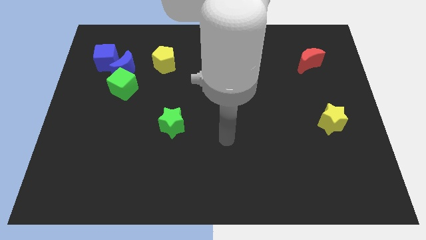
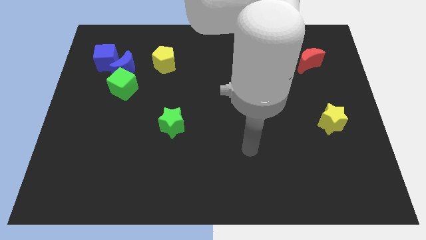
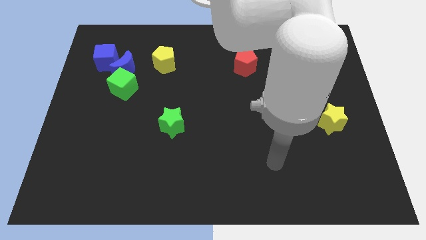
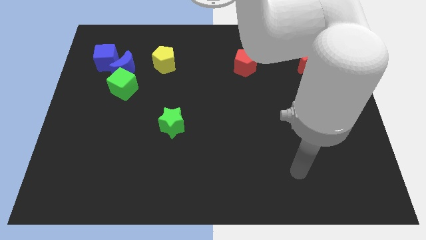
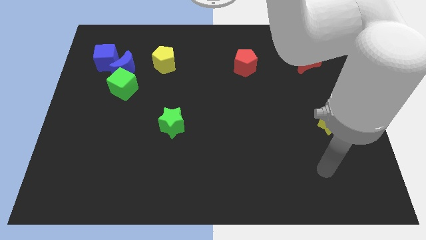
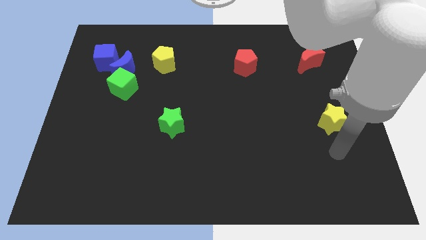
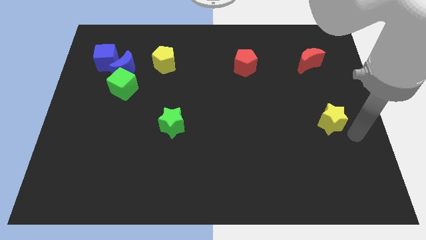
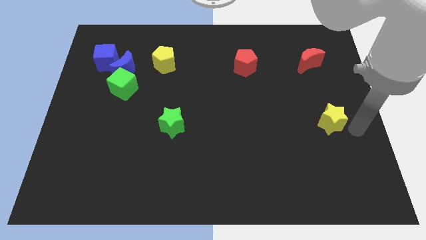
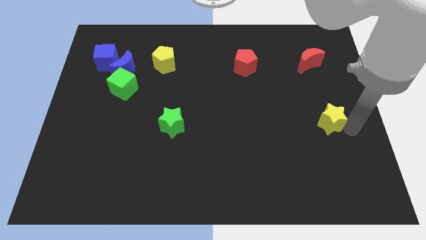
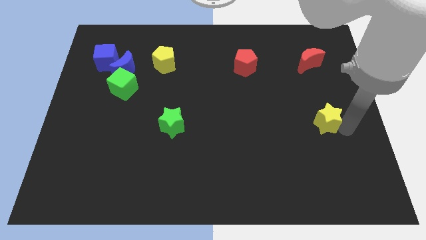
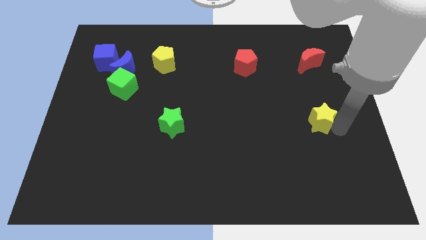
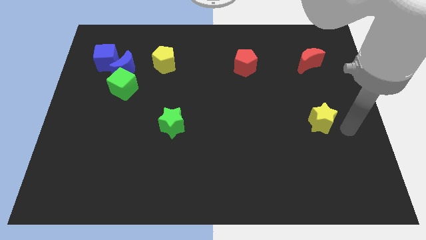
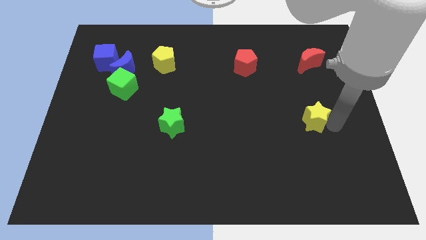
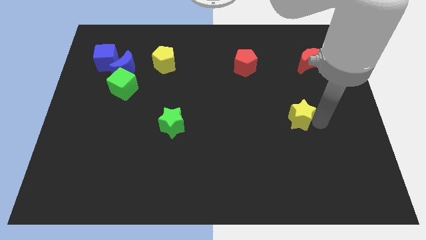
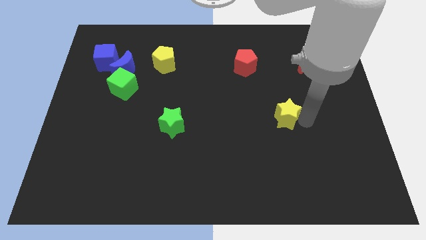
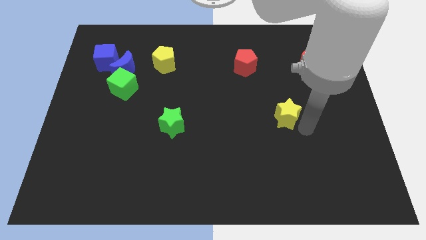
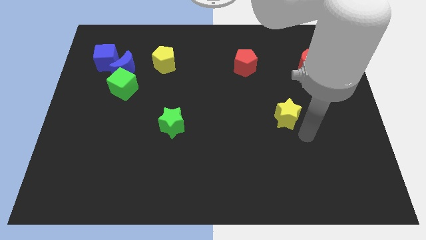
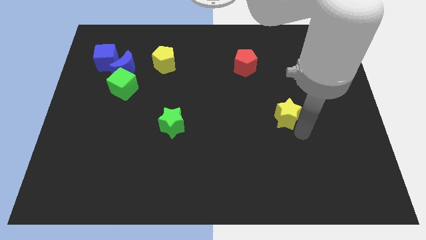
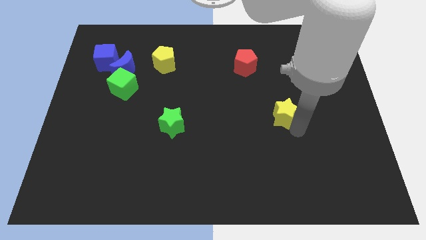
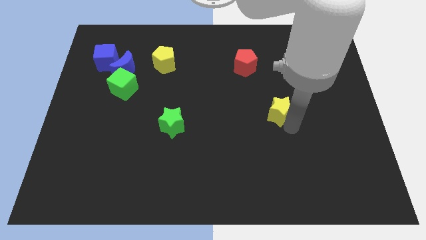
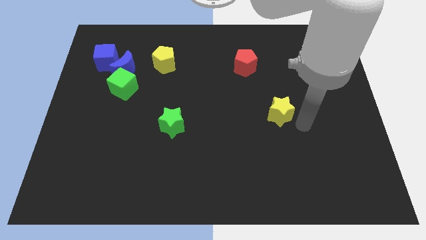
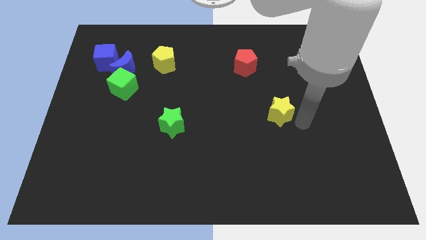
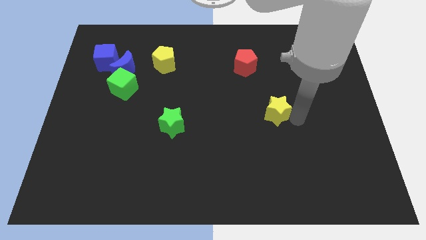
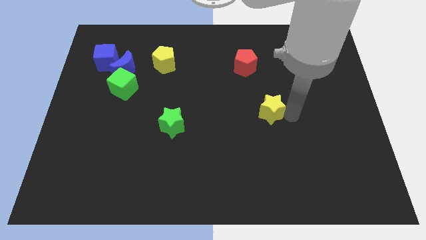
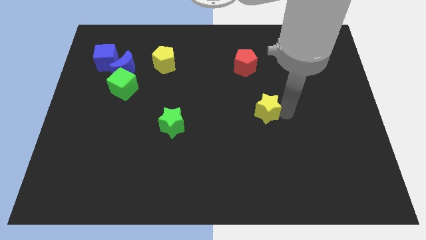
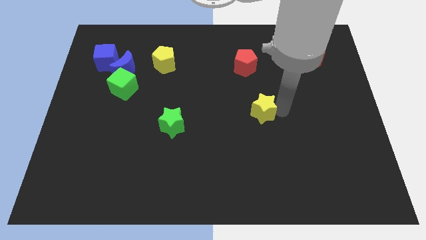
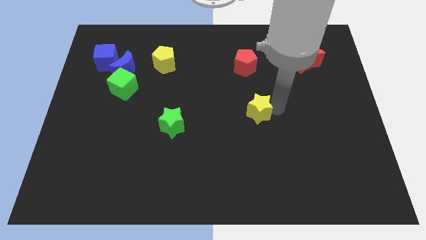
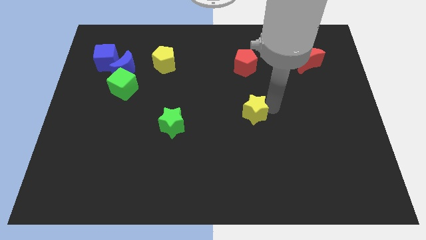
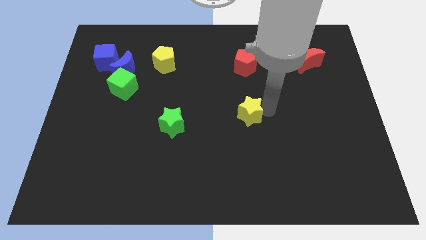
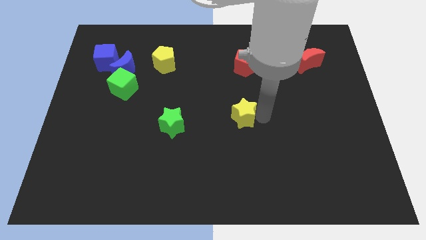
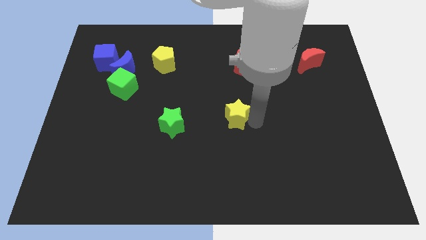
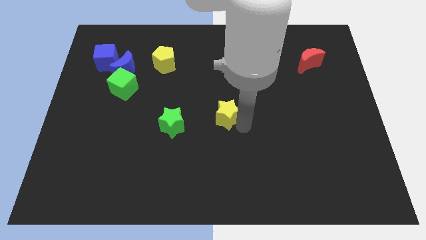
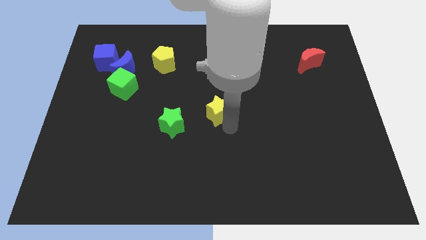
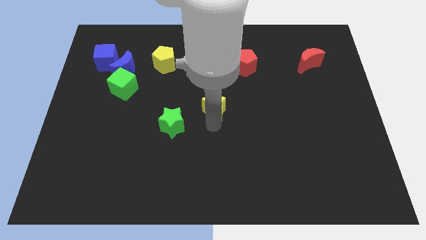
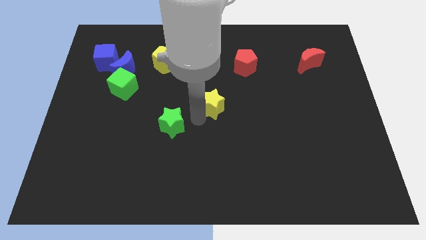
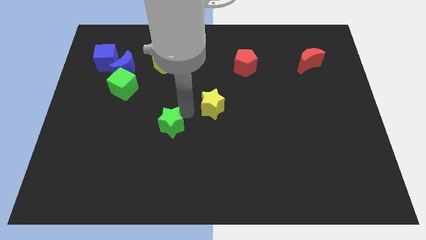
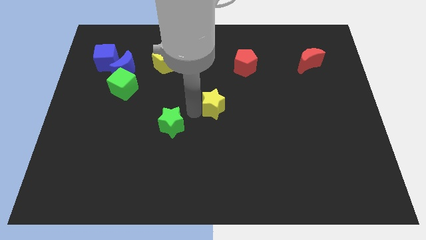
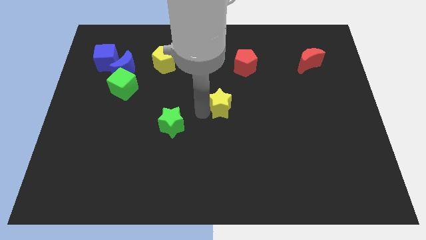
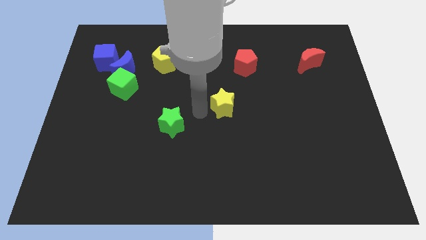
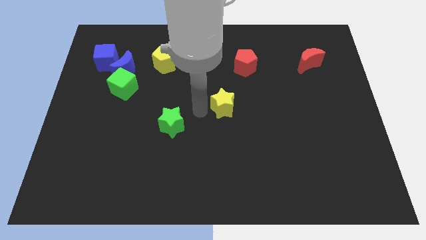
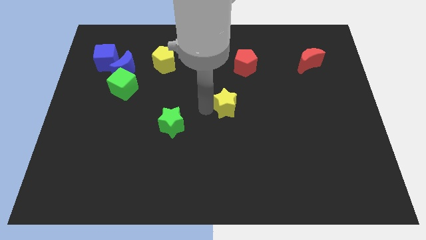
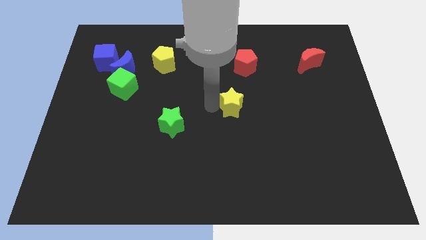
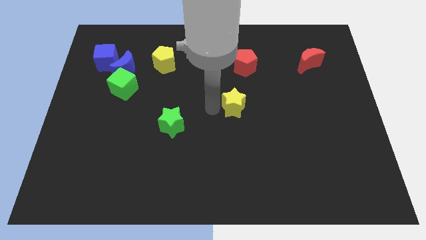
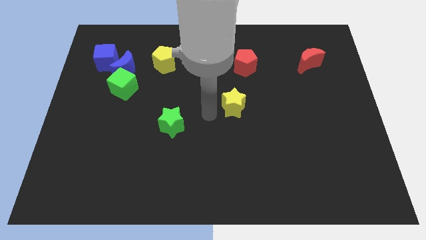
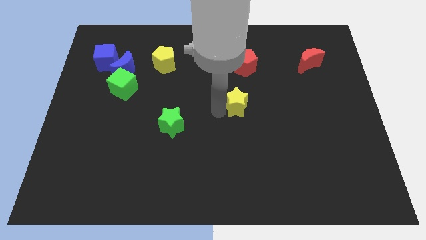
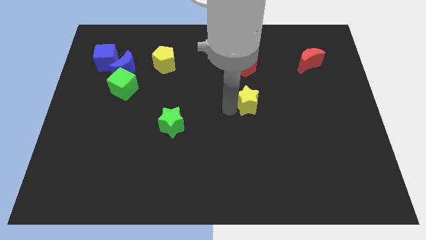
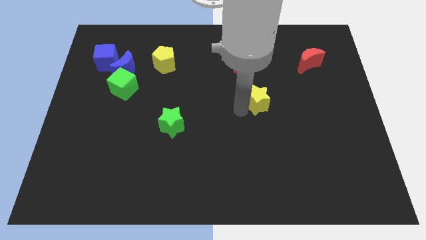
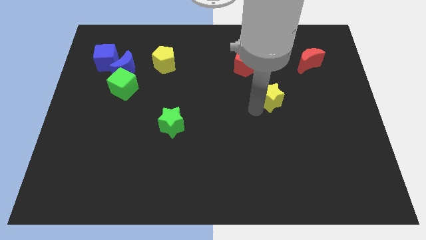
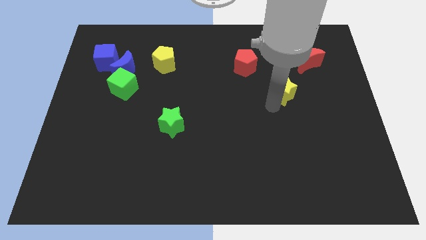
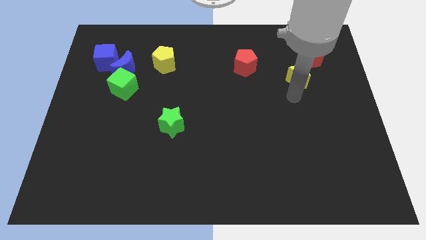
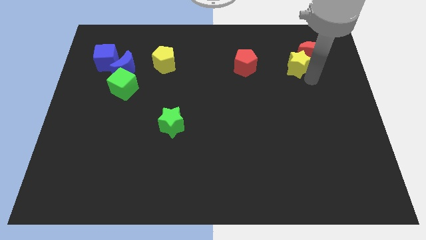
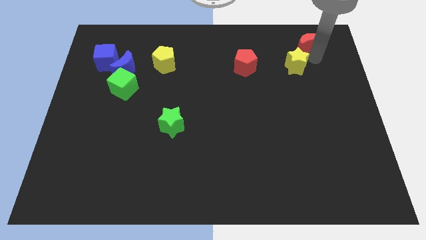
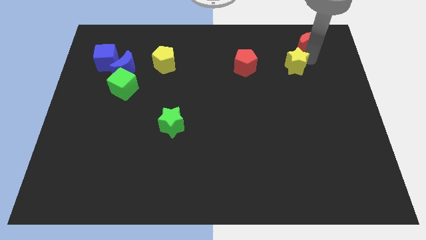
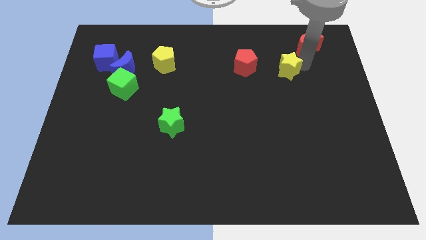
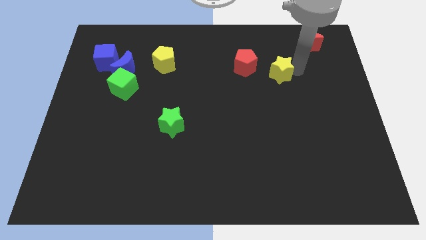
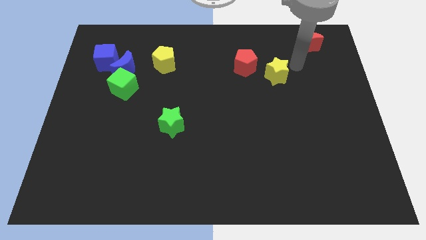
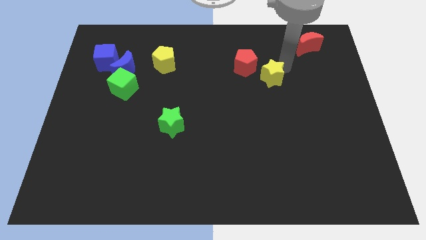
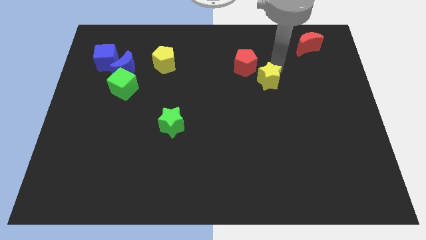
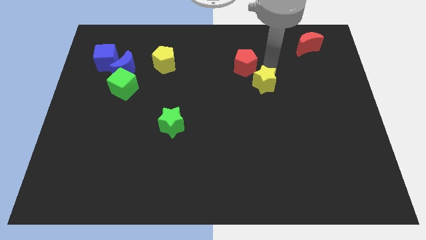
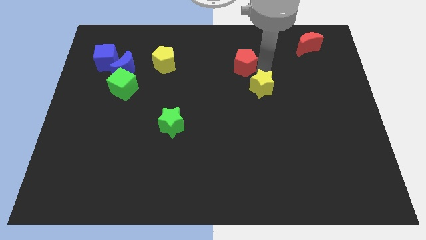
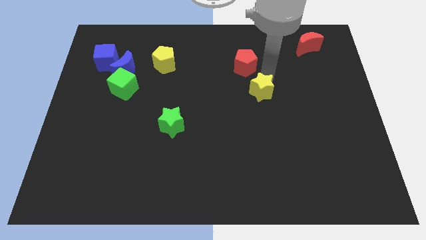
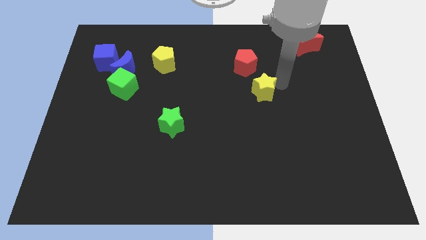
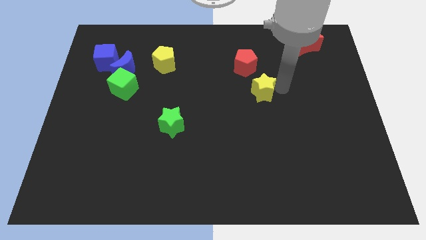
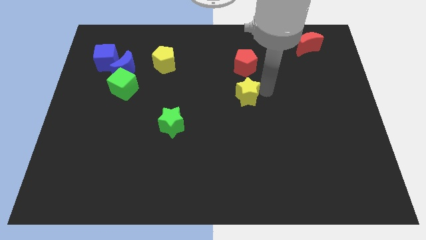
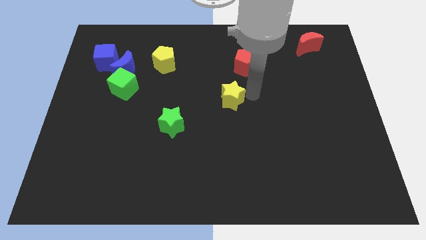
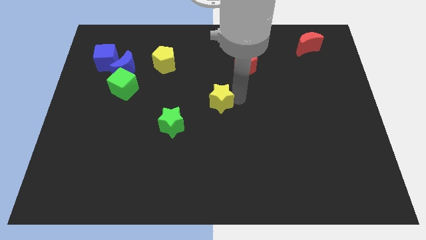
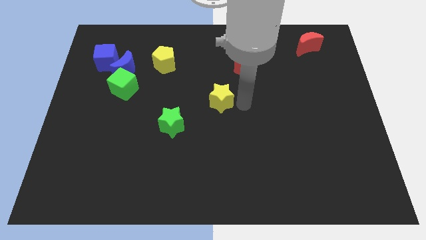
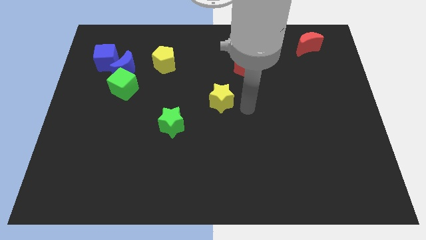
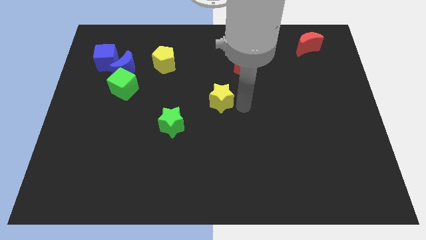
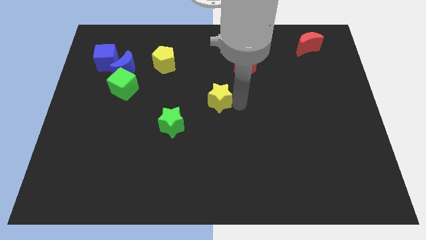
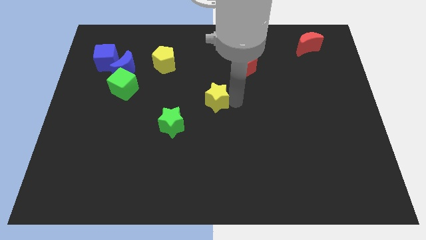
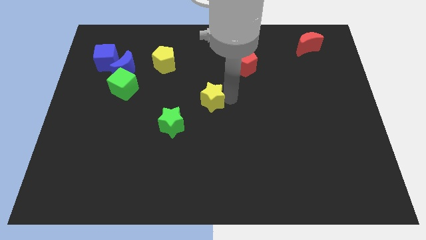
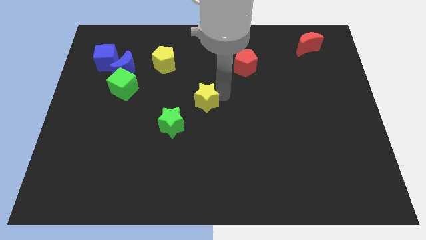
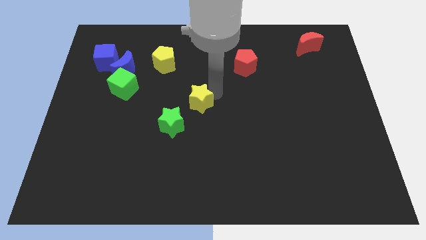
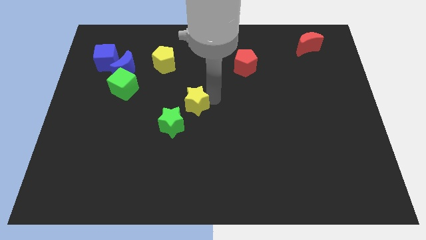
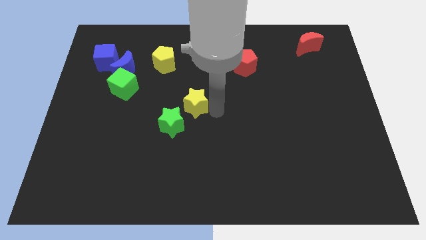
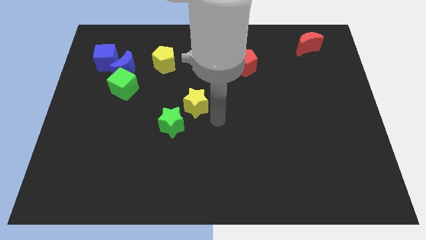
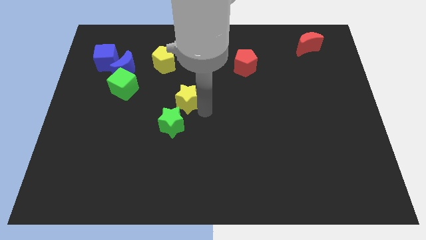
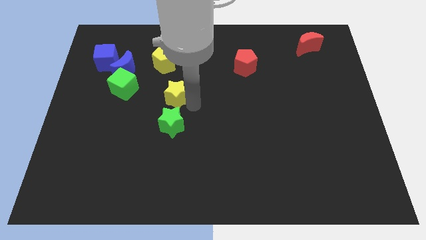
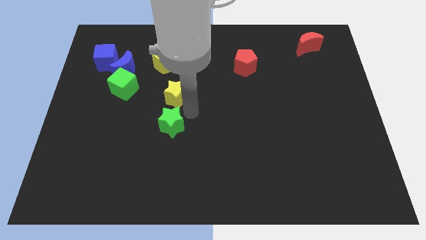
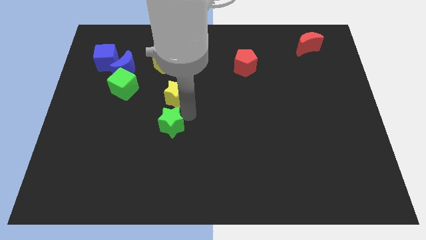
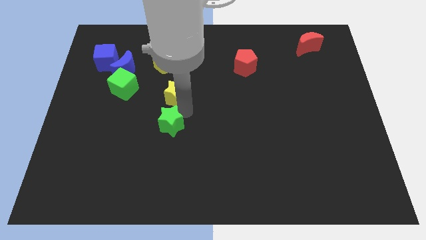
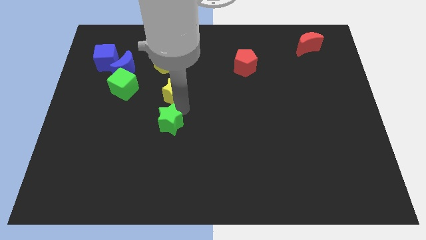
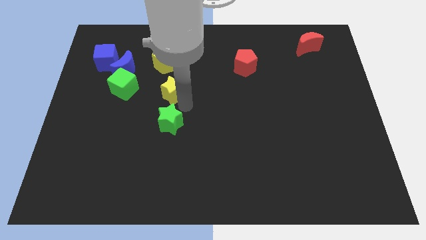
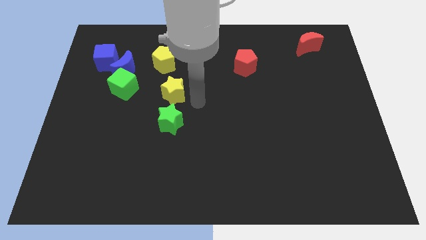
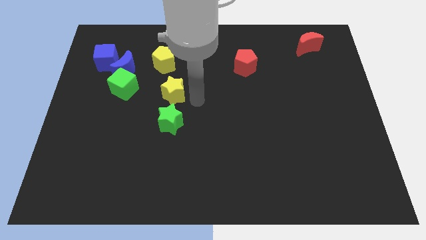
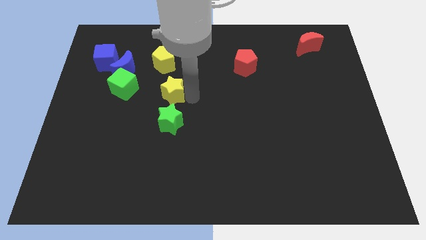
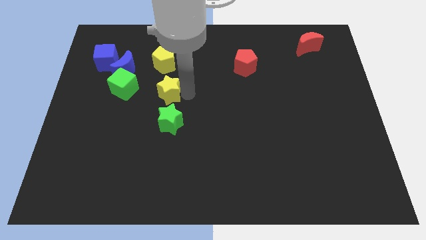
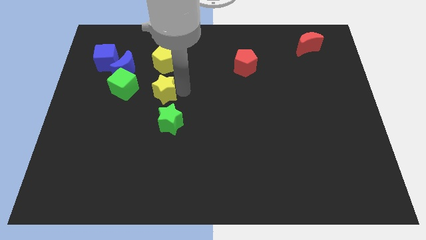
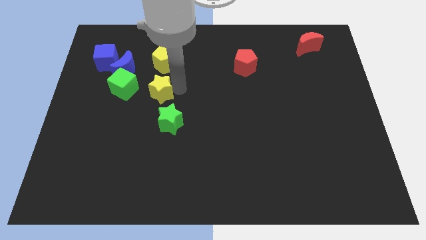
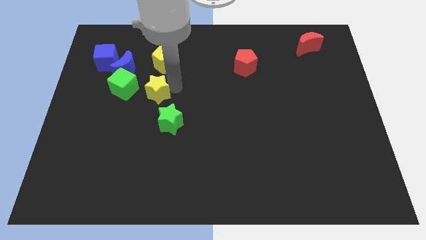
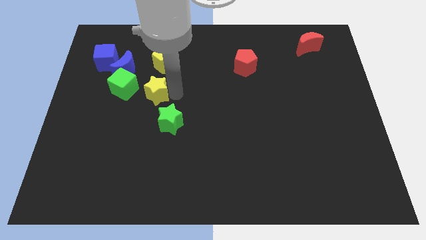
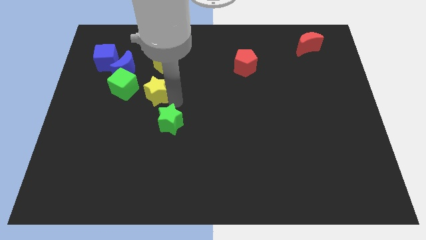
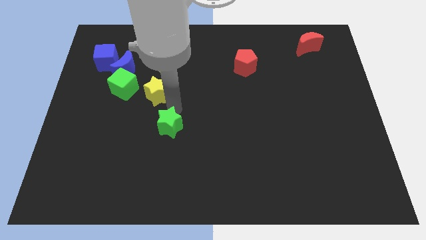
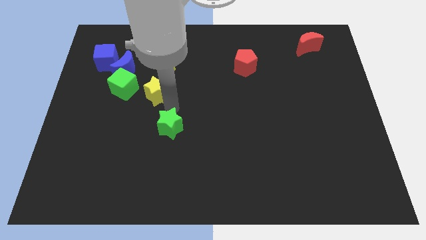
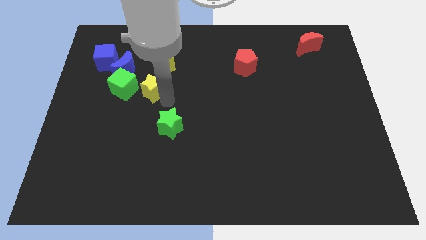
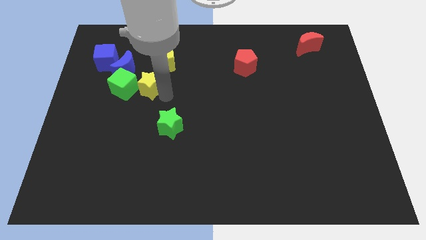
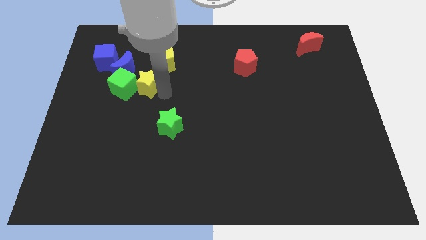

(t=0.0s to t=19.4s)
push the yellow star close to the green cube
